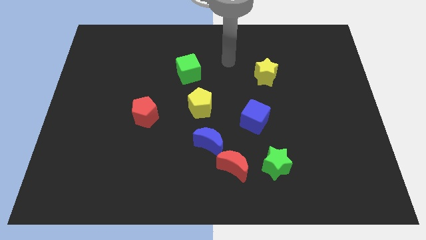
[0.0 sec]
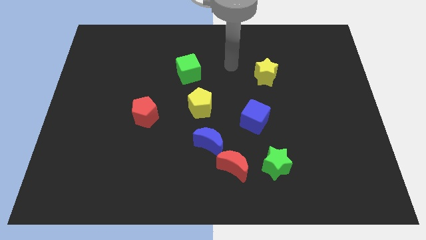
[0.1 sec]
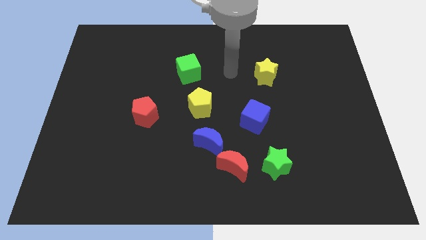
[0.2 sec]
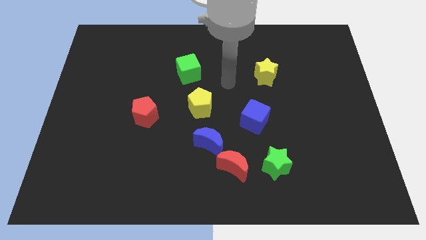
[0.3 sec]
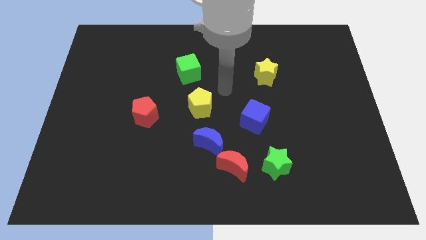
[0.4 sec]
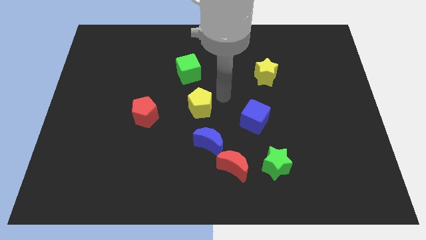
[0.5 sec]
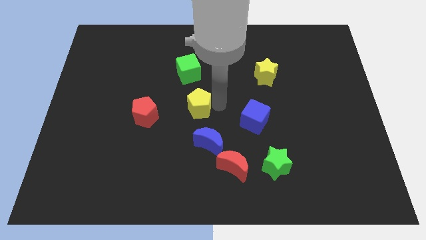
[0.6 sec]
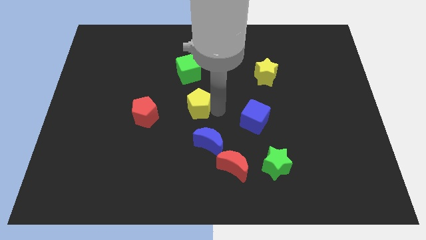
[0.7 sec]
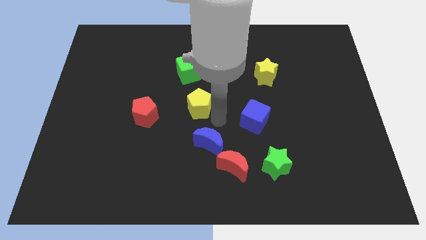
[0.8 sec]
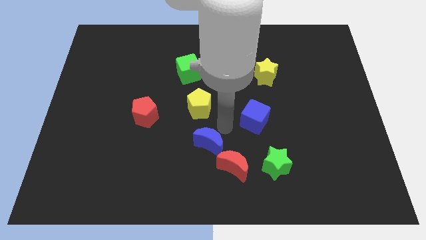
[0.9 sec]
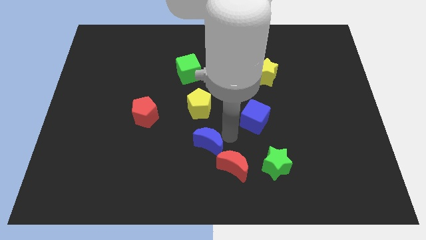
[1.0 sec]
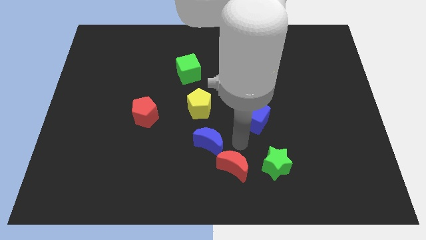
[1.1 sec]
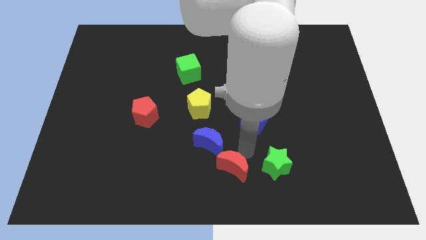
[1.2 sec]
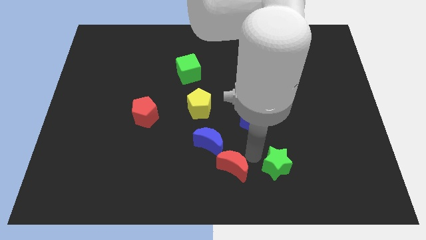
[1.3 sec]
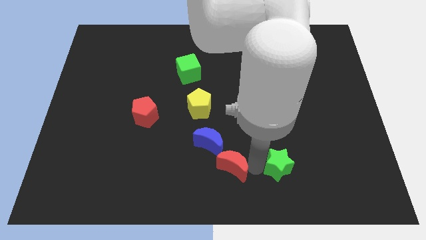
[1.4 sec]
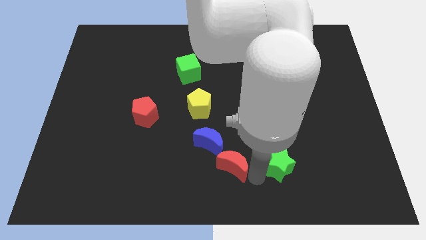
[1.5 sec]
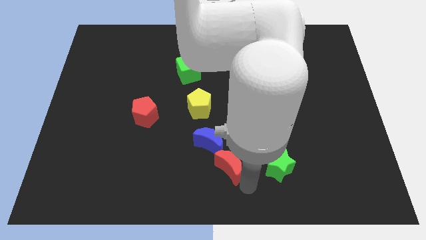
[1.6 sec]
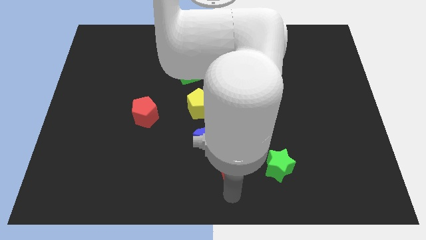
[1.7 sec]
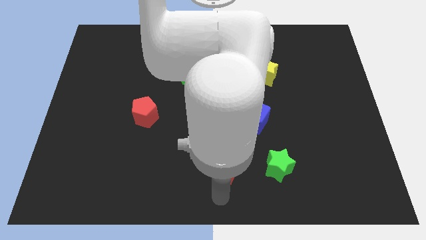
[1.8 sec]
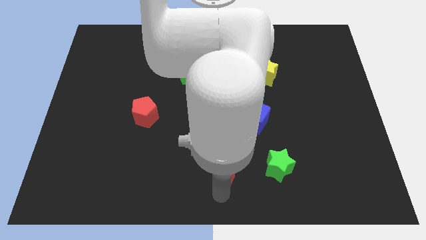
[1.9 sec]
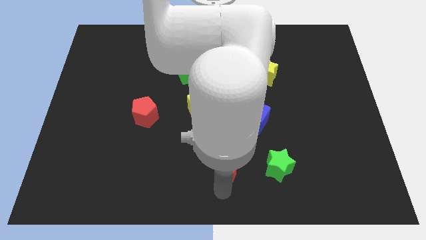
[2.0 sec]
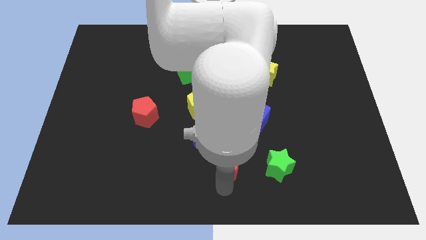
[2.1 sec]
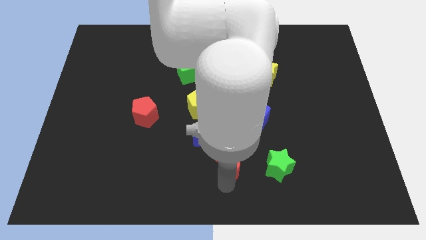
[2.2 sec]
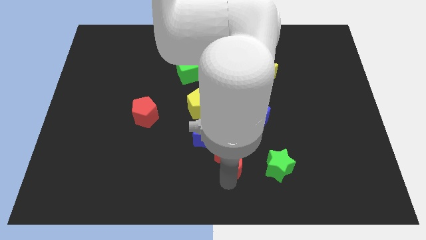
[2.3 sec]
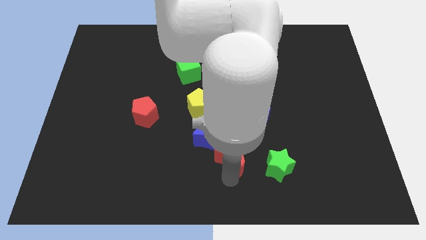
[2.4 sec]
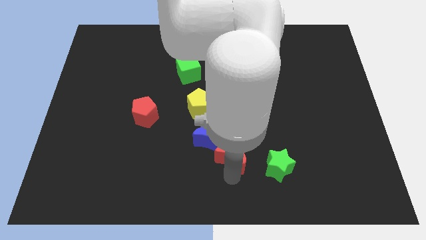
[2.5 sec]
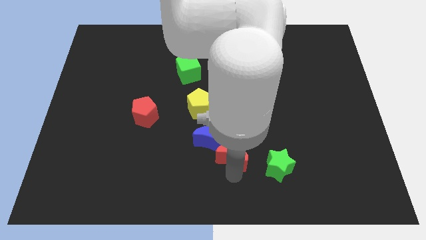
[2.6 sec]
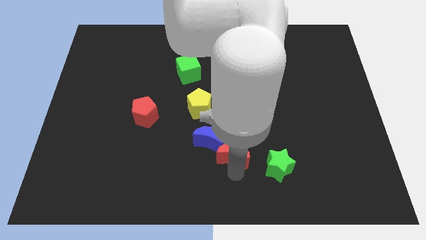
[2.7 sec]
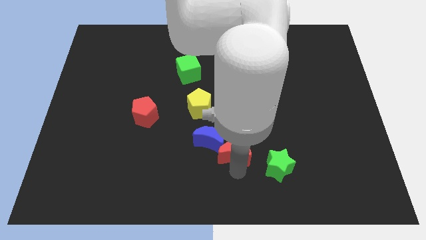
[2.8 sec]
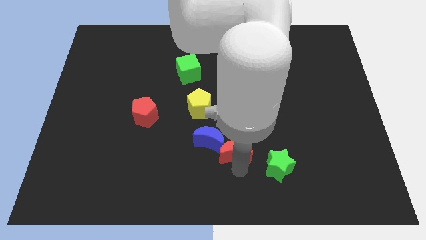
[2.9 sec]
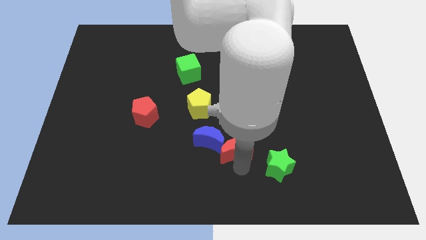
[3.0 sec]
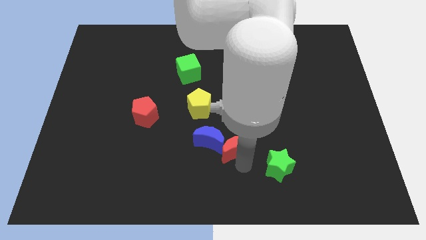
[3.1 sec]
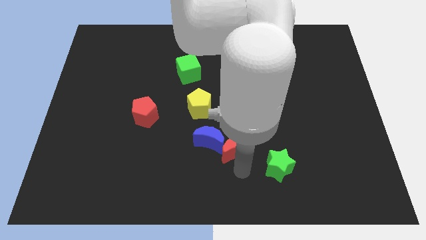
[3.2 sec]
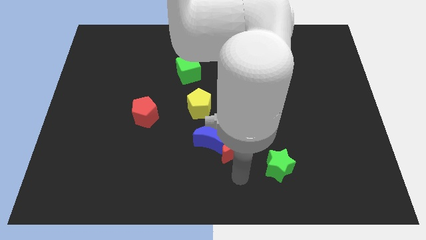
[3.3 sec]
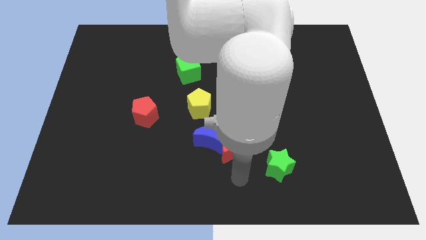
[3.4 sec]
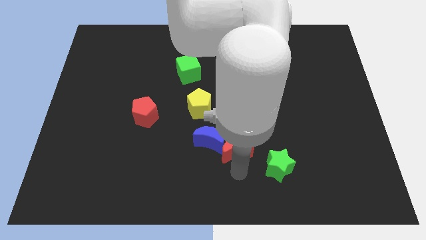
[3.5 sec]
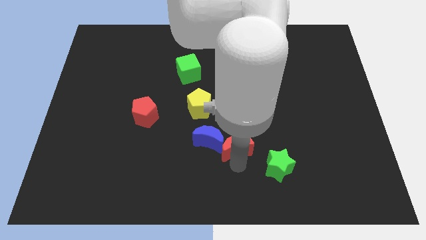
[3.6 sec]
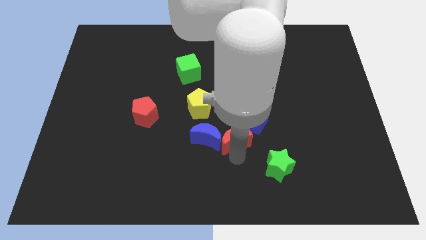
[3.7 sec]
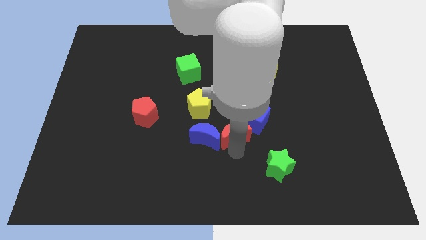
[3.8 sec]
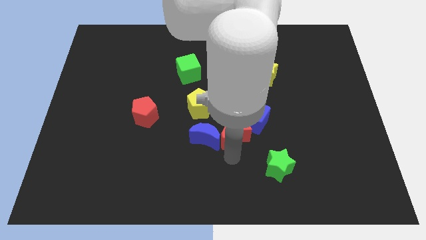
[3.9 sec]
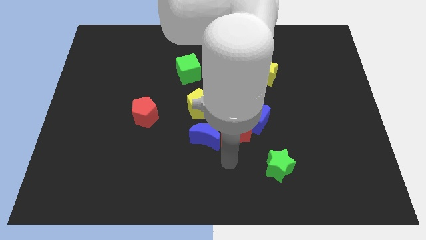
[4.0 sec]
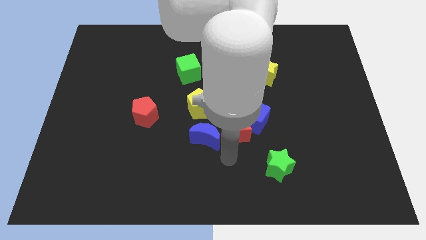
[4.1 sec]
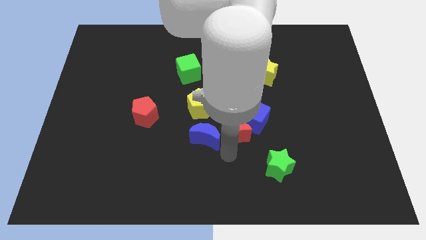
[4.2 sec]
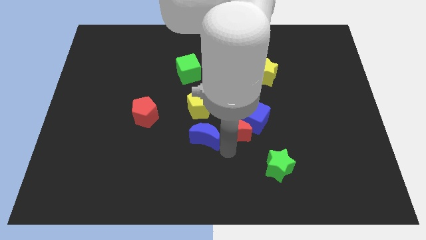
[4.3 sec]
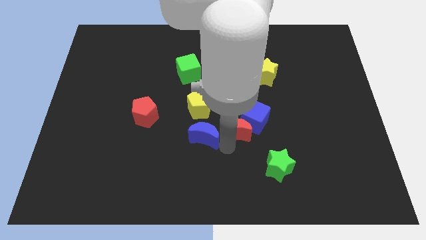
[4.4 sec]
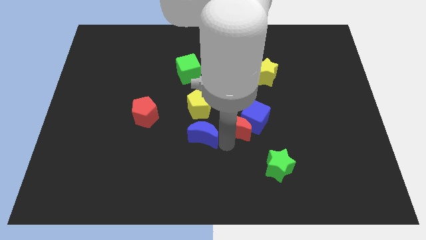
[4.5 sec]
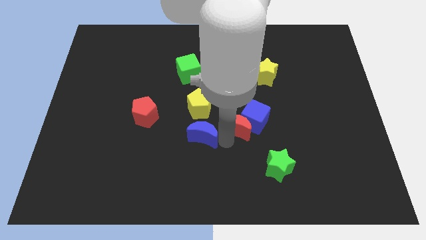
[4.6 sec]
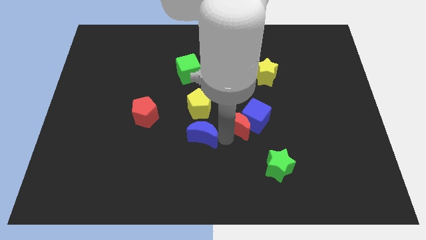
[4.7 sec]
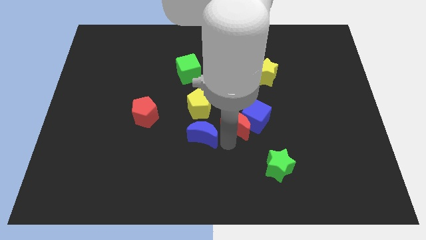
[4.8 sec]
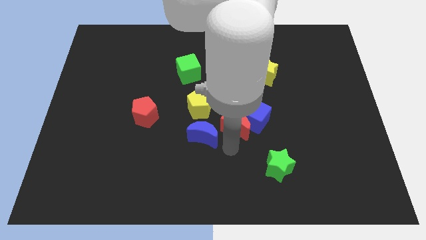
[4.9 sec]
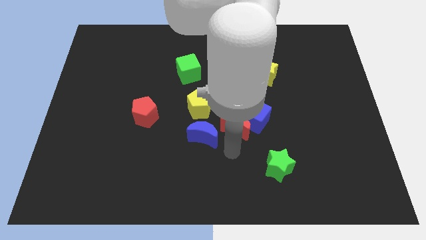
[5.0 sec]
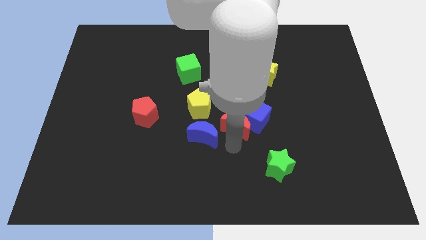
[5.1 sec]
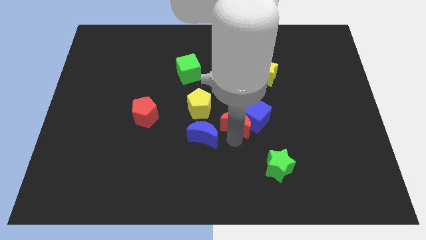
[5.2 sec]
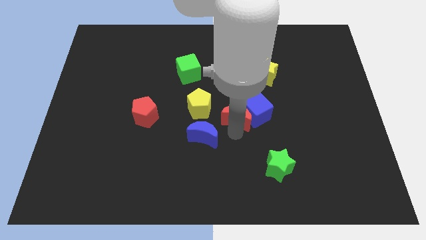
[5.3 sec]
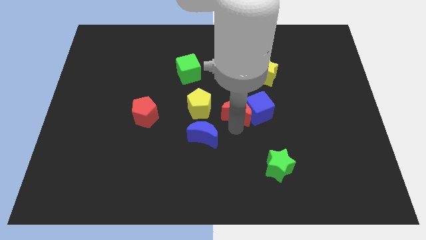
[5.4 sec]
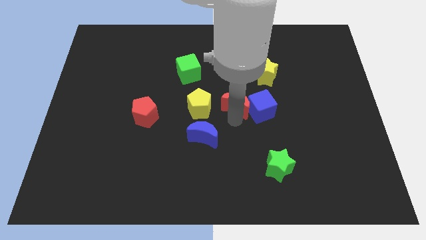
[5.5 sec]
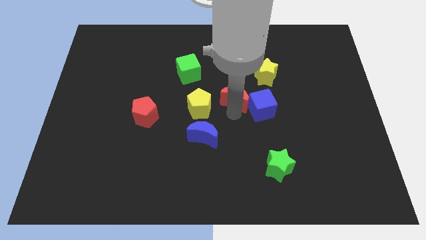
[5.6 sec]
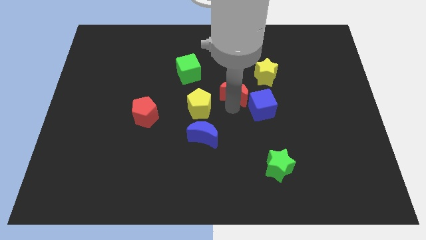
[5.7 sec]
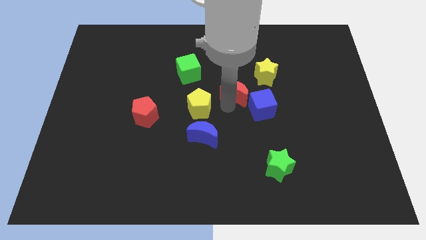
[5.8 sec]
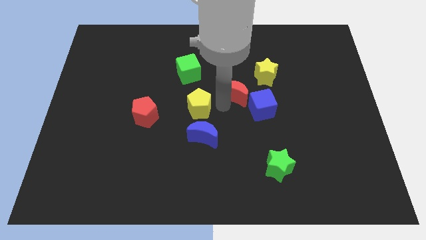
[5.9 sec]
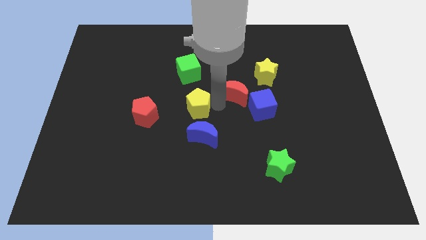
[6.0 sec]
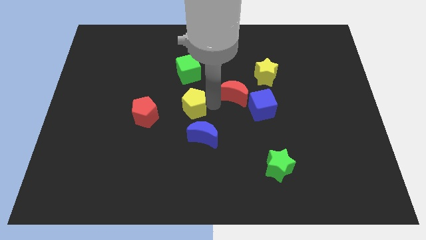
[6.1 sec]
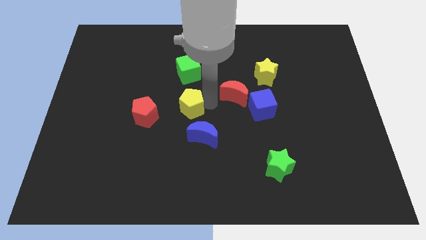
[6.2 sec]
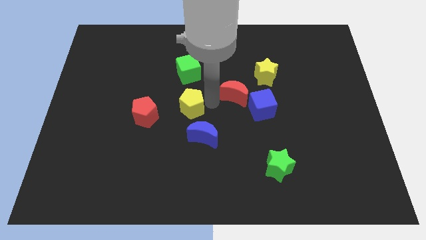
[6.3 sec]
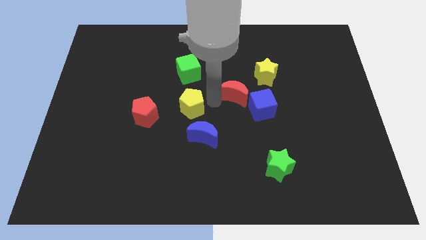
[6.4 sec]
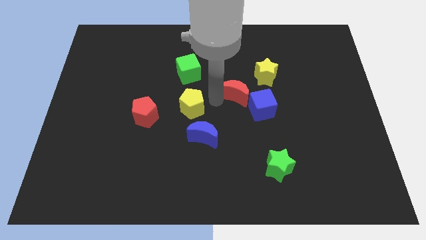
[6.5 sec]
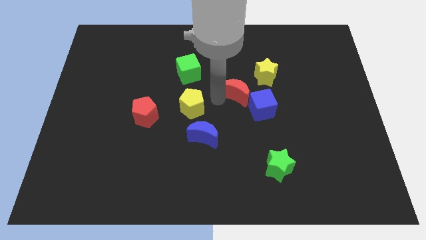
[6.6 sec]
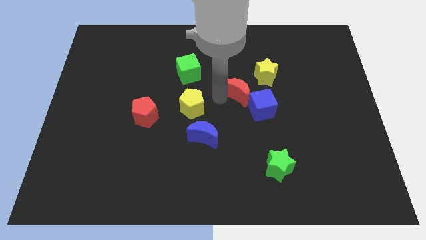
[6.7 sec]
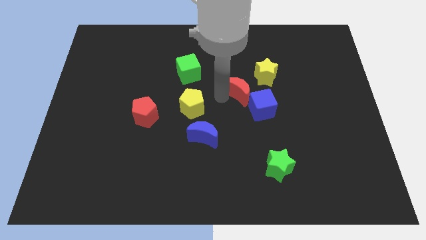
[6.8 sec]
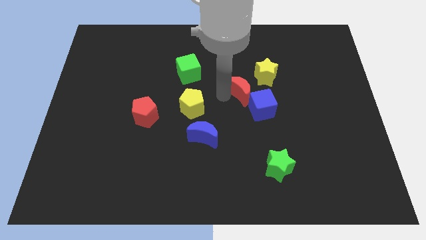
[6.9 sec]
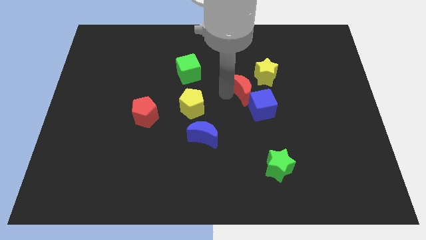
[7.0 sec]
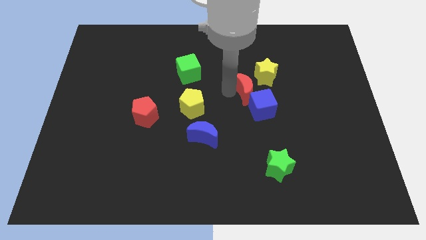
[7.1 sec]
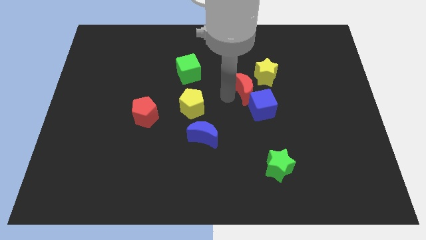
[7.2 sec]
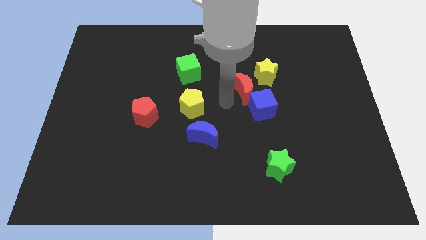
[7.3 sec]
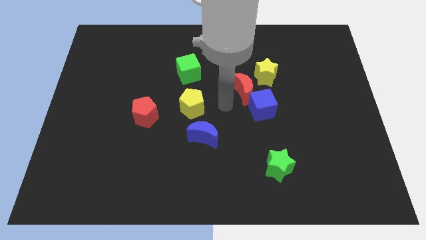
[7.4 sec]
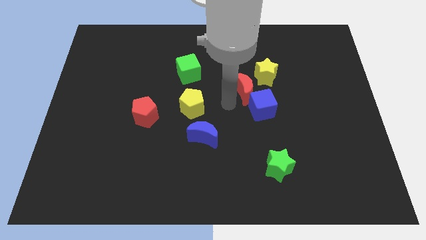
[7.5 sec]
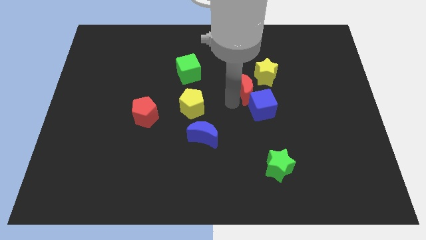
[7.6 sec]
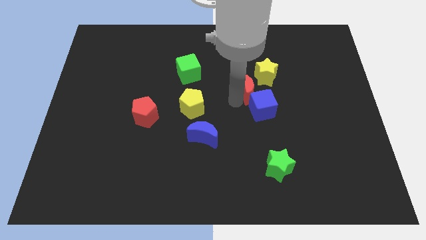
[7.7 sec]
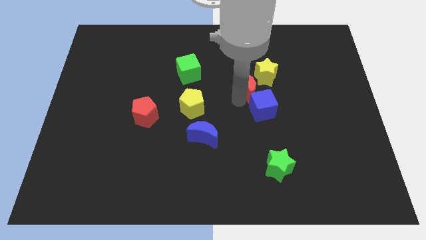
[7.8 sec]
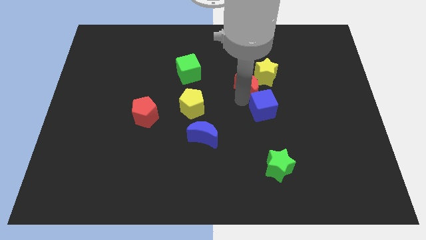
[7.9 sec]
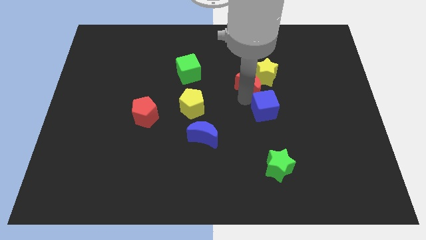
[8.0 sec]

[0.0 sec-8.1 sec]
put the red moon next to the yellow star
